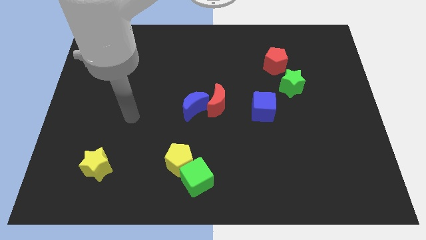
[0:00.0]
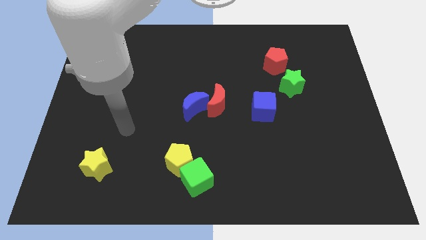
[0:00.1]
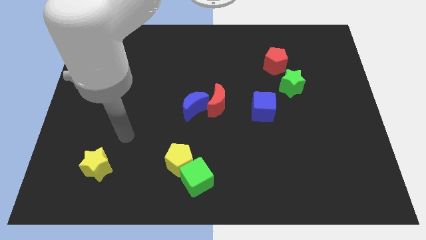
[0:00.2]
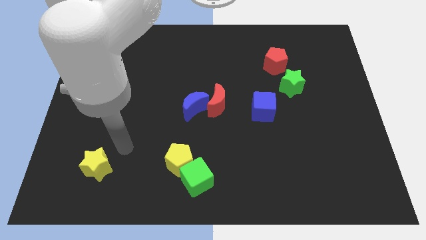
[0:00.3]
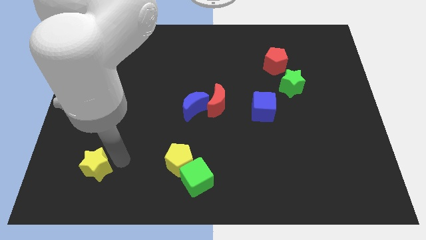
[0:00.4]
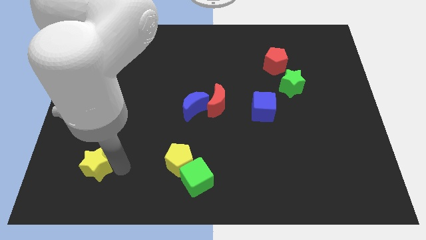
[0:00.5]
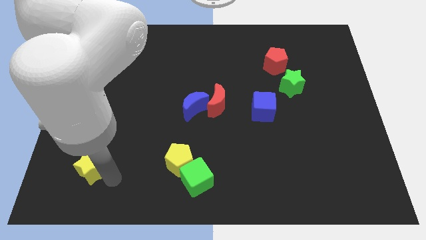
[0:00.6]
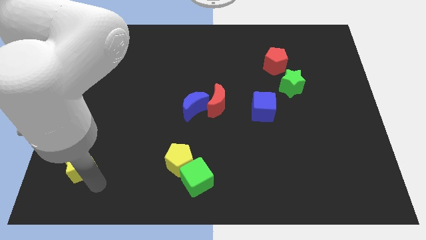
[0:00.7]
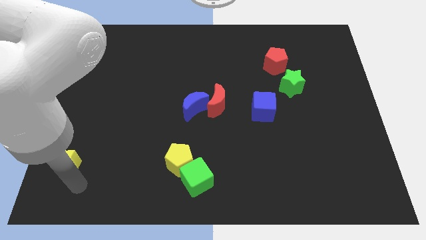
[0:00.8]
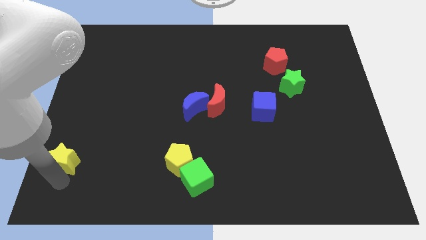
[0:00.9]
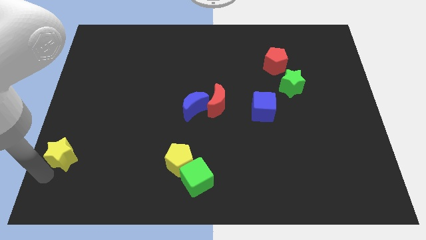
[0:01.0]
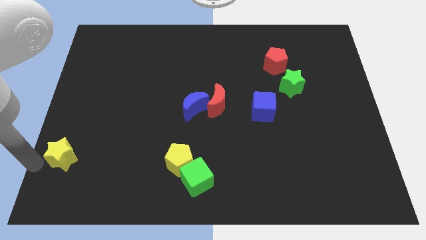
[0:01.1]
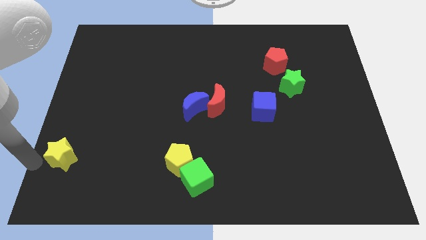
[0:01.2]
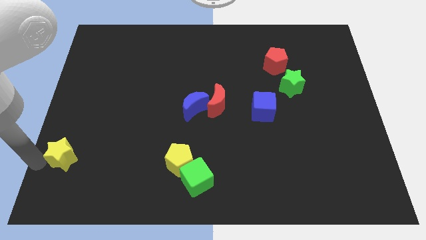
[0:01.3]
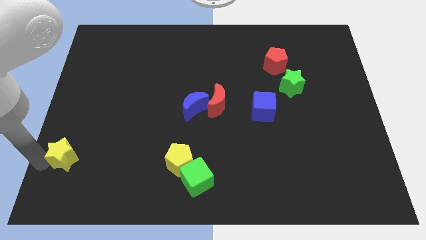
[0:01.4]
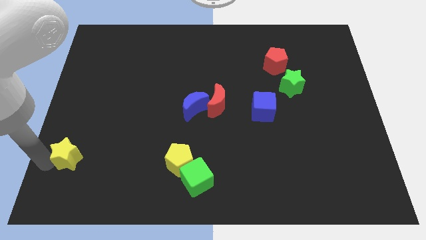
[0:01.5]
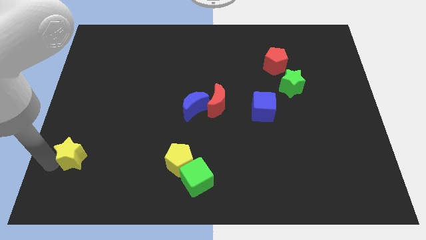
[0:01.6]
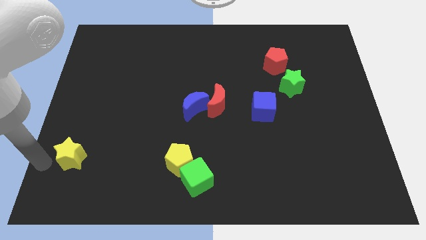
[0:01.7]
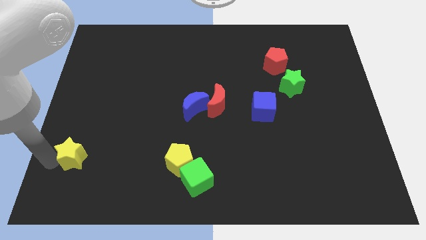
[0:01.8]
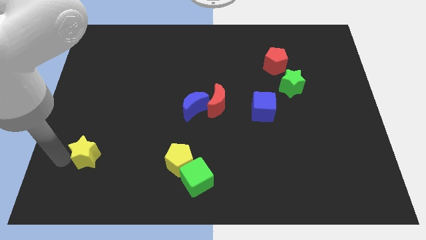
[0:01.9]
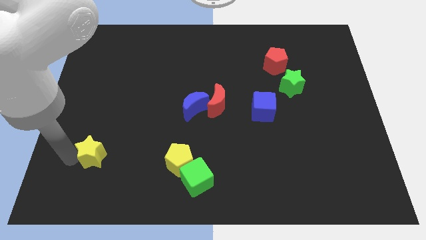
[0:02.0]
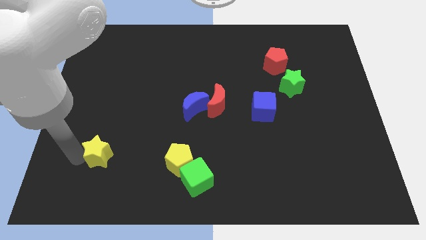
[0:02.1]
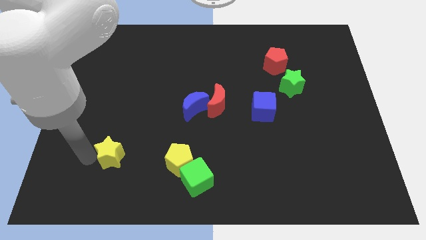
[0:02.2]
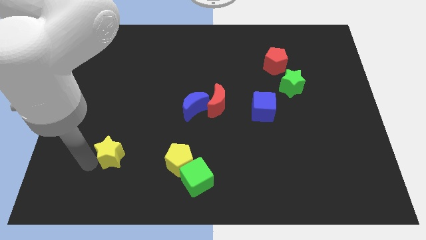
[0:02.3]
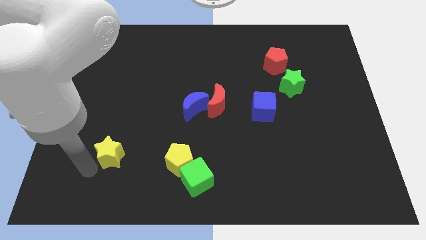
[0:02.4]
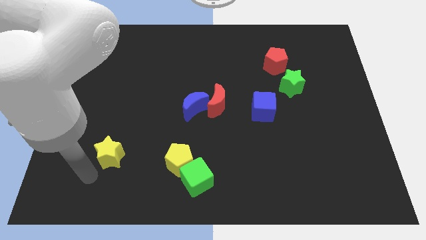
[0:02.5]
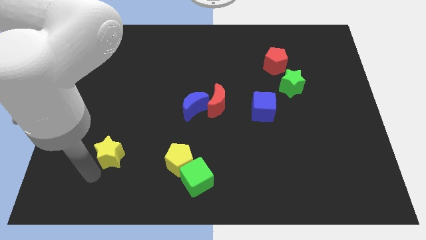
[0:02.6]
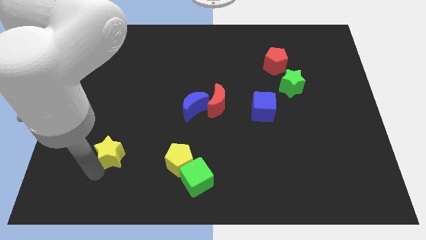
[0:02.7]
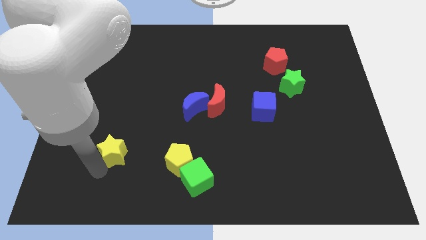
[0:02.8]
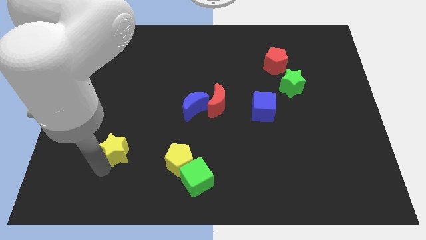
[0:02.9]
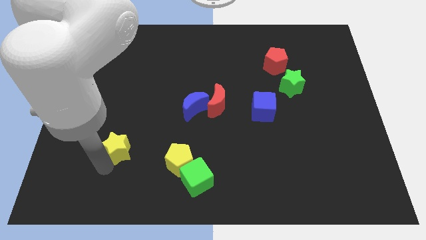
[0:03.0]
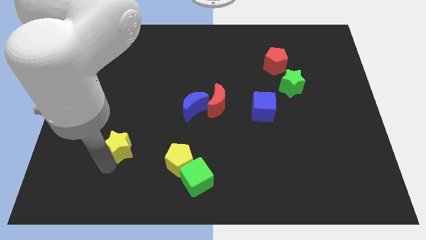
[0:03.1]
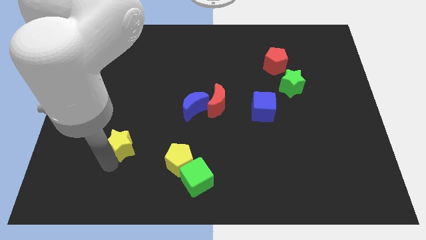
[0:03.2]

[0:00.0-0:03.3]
push the yellow star diagonally up and to the right a little bit

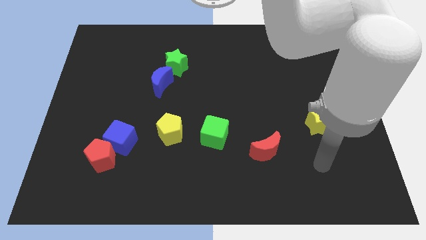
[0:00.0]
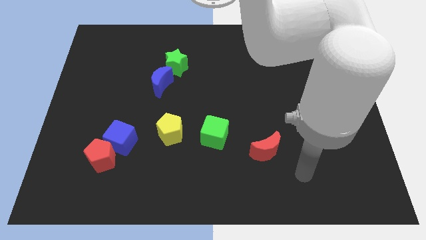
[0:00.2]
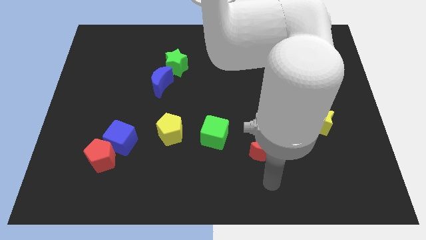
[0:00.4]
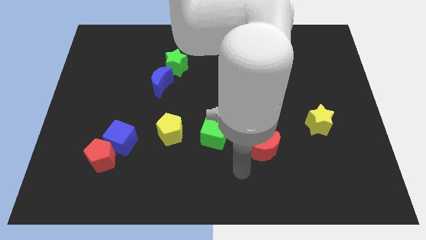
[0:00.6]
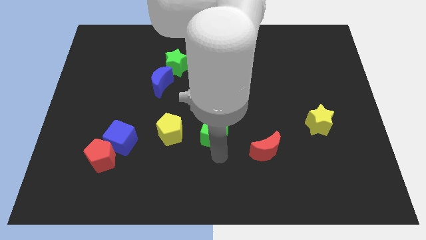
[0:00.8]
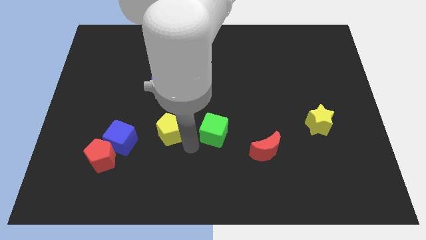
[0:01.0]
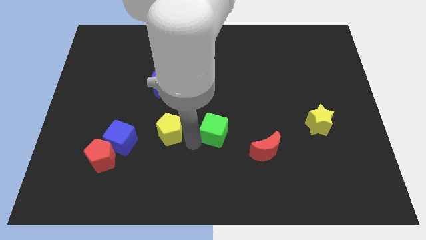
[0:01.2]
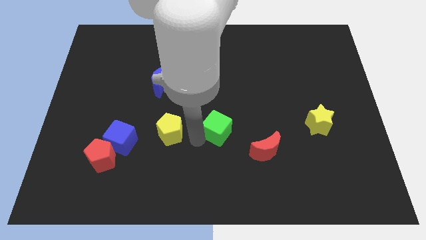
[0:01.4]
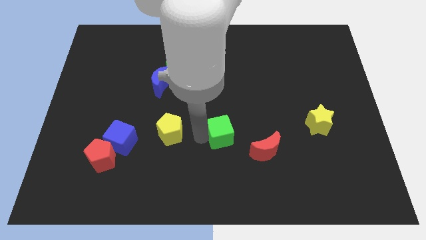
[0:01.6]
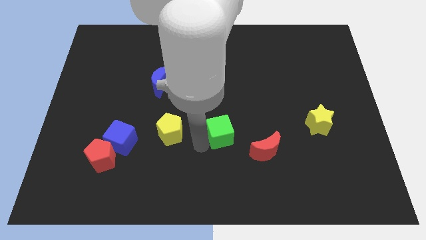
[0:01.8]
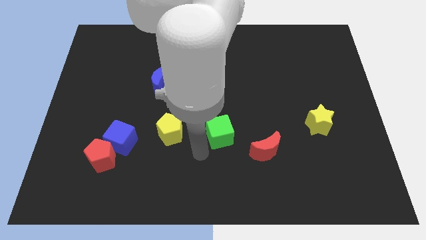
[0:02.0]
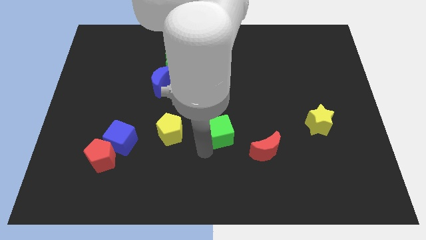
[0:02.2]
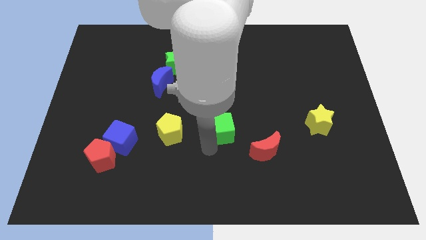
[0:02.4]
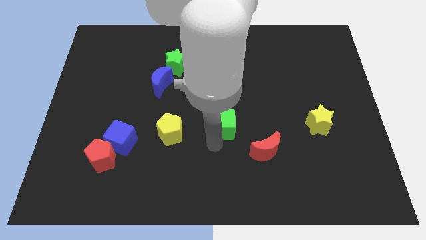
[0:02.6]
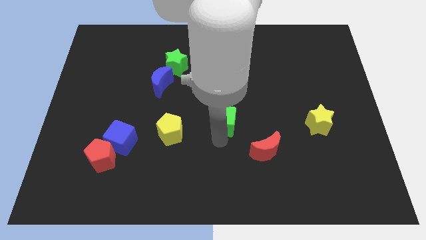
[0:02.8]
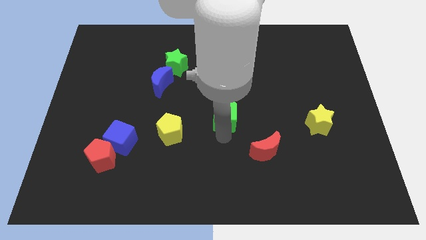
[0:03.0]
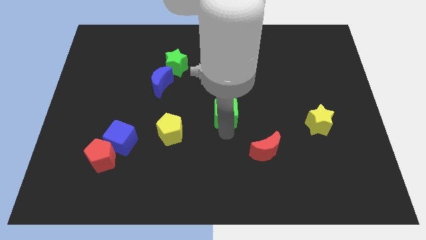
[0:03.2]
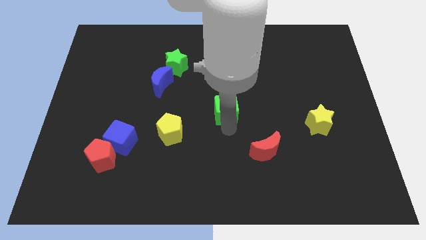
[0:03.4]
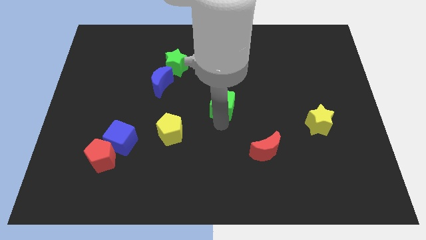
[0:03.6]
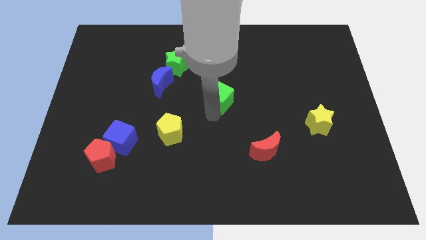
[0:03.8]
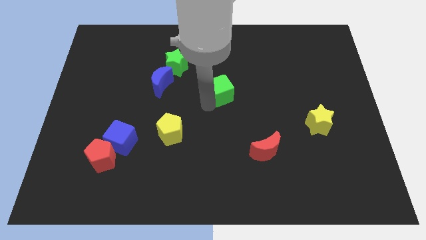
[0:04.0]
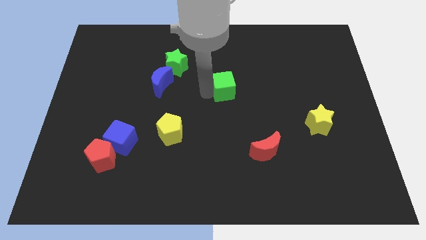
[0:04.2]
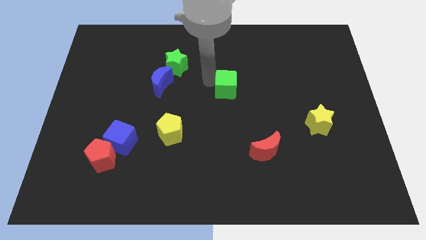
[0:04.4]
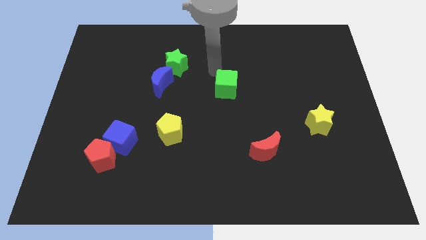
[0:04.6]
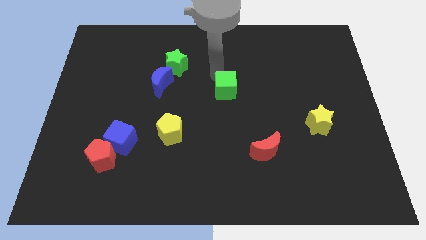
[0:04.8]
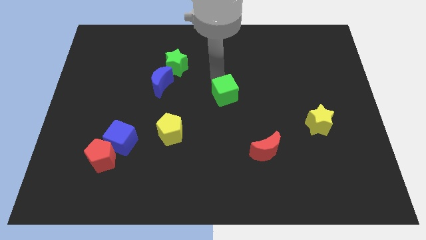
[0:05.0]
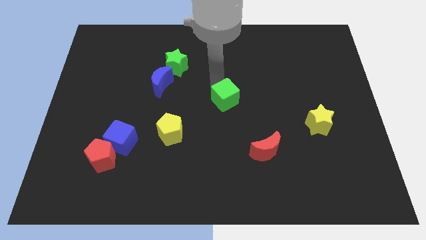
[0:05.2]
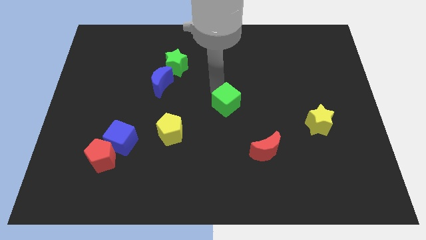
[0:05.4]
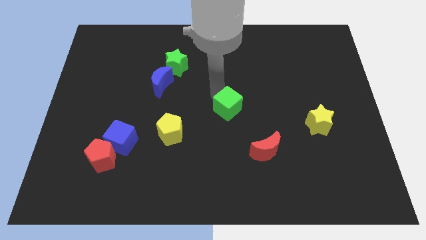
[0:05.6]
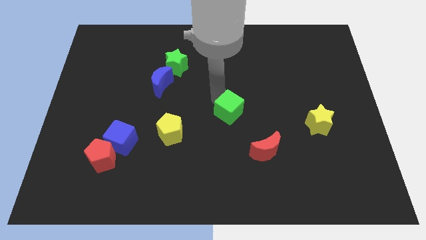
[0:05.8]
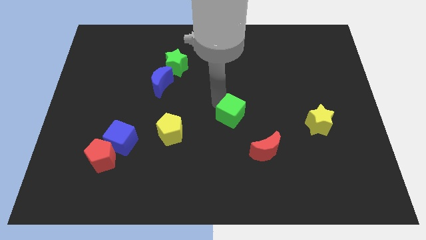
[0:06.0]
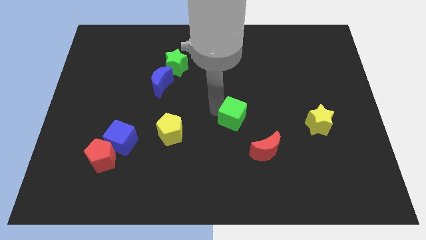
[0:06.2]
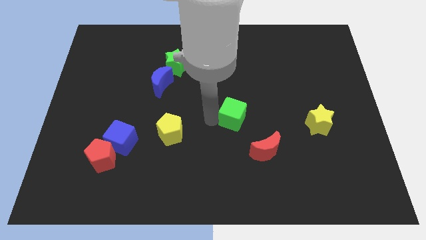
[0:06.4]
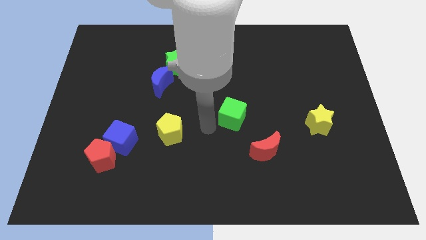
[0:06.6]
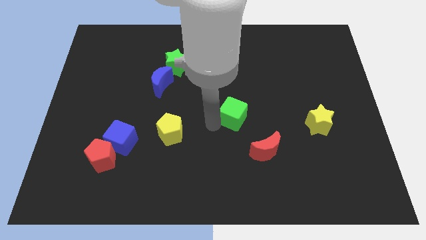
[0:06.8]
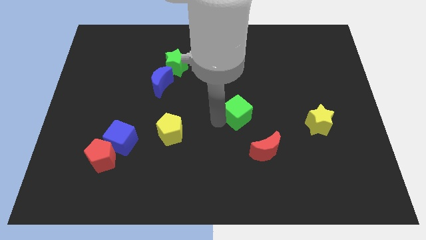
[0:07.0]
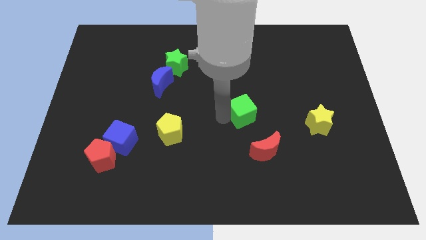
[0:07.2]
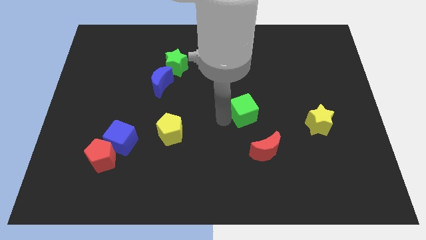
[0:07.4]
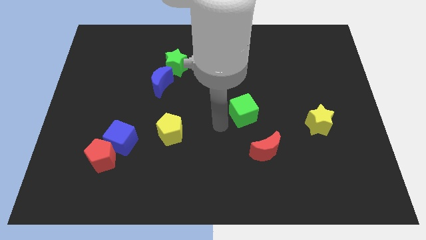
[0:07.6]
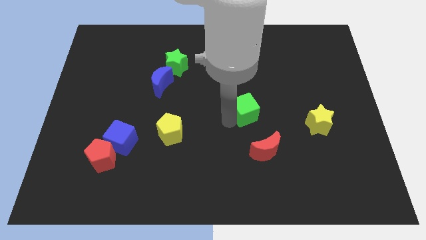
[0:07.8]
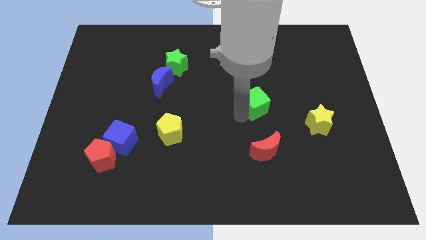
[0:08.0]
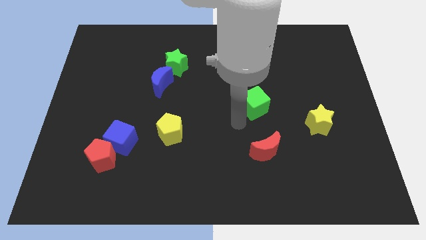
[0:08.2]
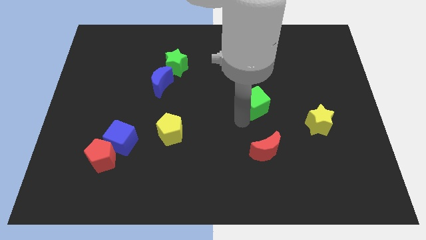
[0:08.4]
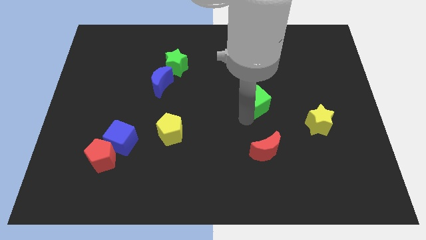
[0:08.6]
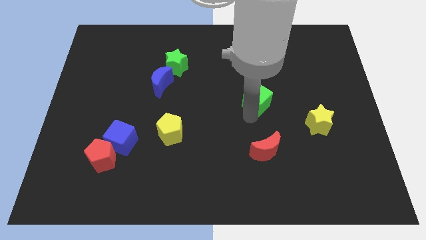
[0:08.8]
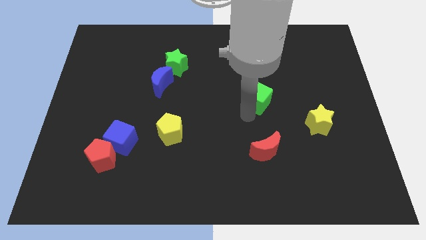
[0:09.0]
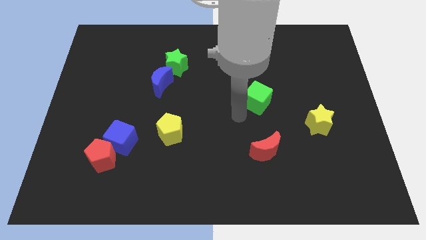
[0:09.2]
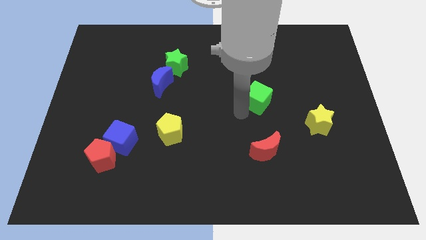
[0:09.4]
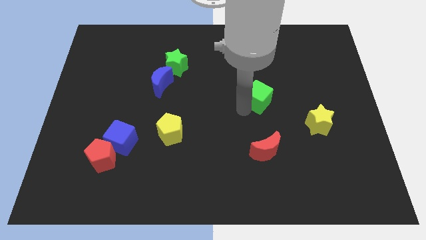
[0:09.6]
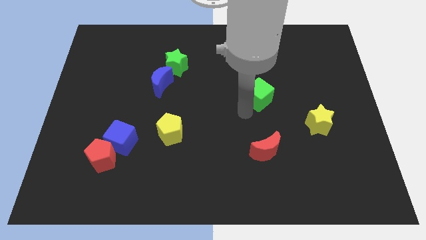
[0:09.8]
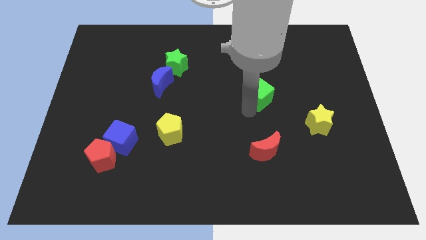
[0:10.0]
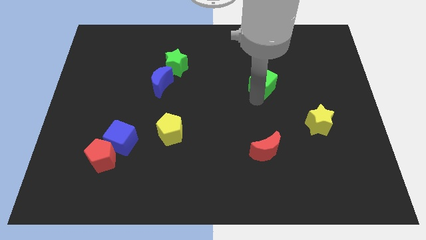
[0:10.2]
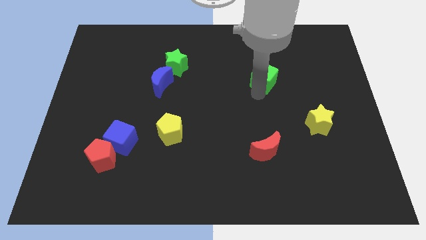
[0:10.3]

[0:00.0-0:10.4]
slide the green cube upwards and to the right

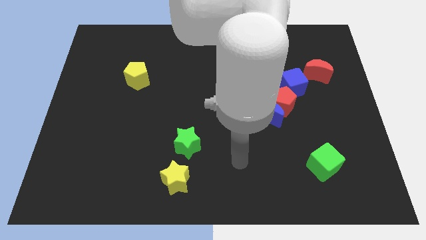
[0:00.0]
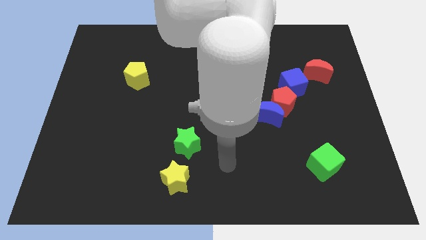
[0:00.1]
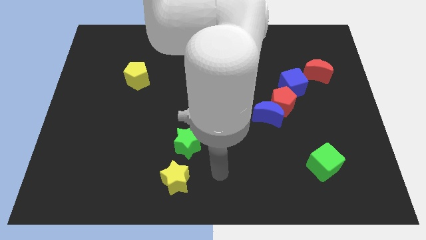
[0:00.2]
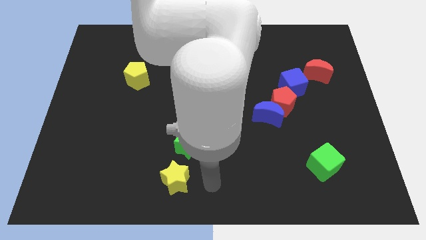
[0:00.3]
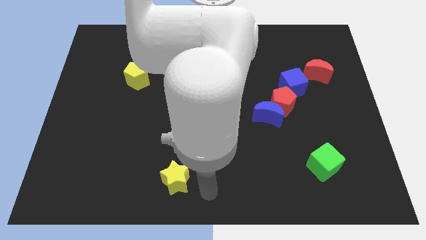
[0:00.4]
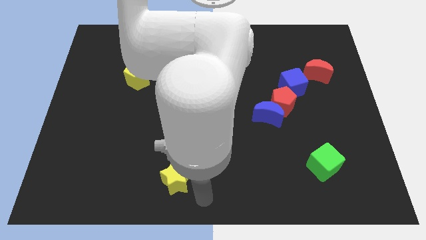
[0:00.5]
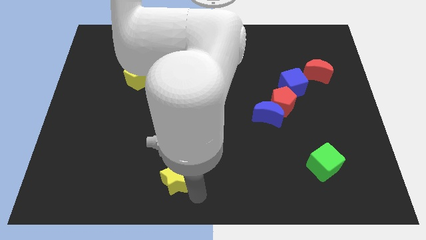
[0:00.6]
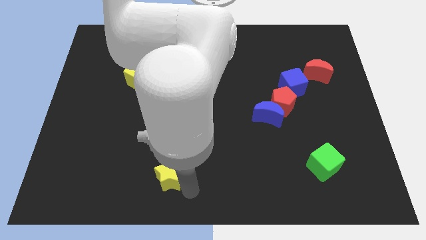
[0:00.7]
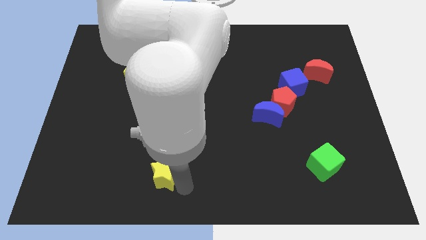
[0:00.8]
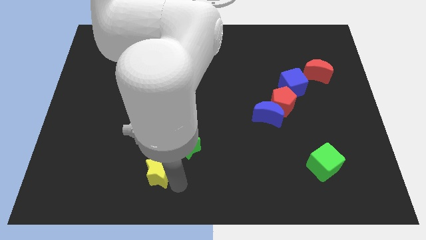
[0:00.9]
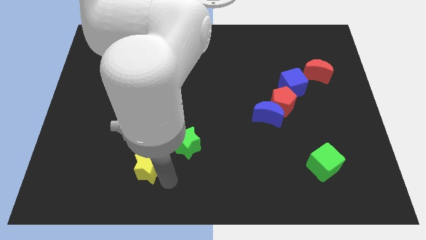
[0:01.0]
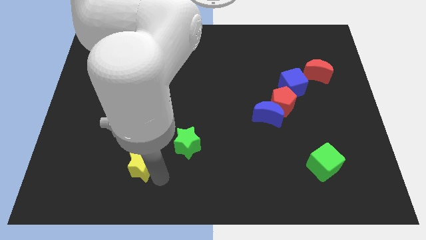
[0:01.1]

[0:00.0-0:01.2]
slightly push the yellow star upwards and to the left diagonally
